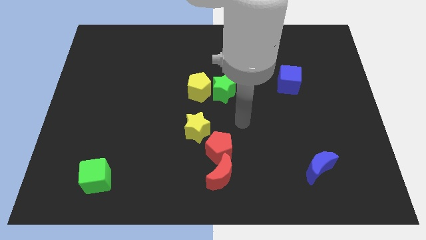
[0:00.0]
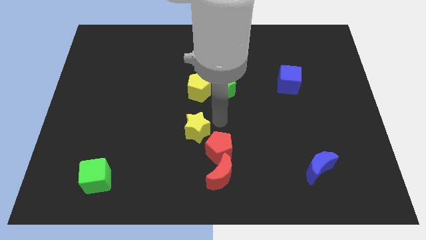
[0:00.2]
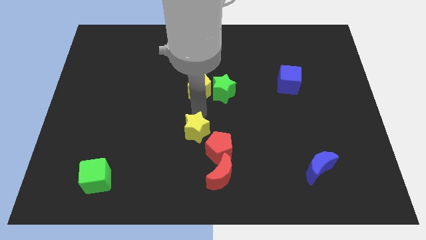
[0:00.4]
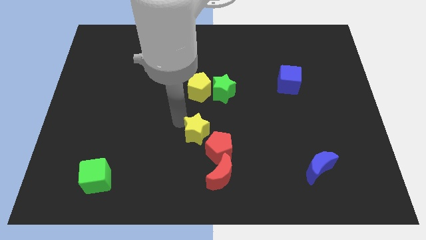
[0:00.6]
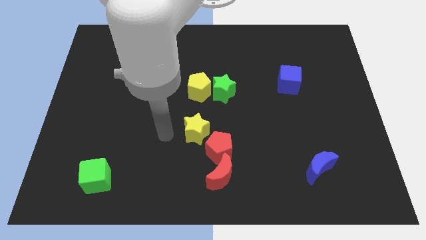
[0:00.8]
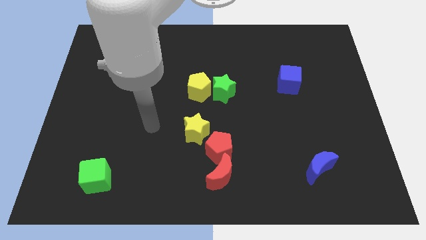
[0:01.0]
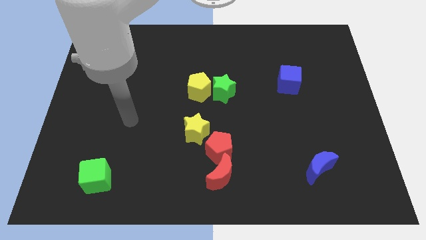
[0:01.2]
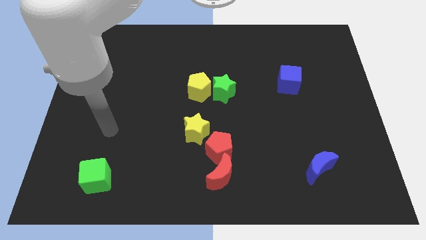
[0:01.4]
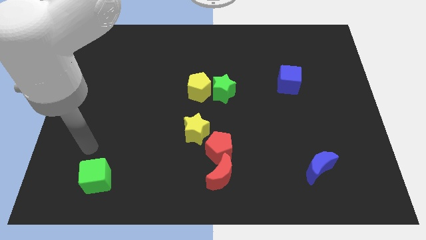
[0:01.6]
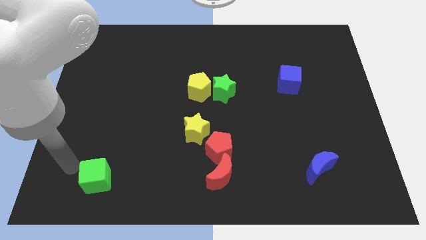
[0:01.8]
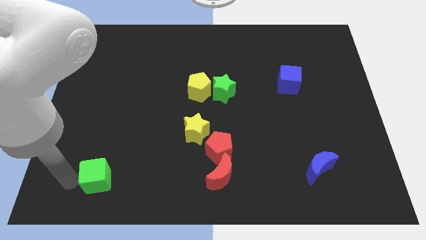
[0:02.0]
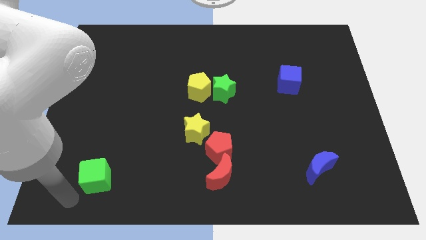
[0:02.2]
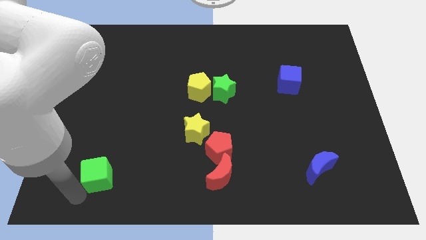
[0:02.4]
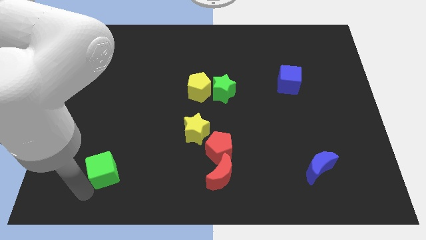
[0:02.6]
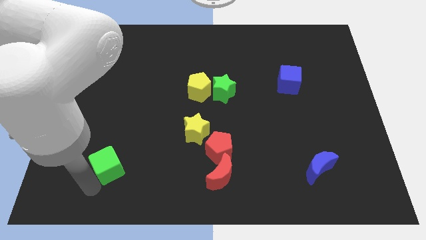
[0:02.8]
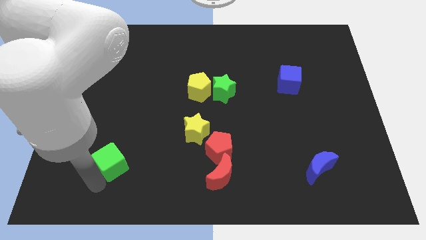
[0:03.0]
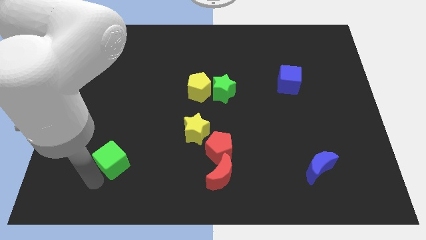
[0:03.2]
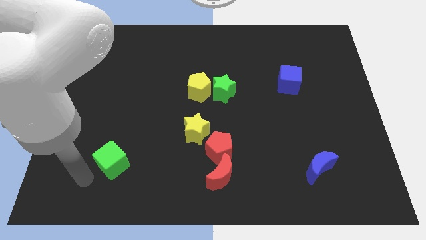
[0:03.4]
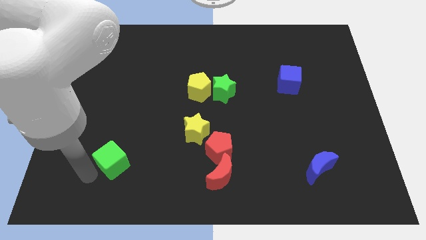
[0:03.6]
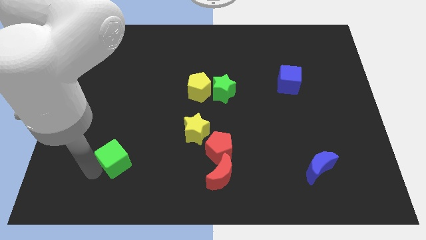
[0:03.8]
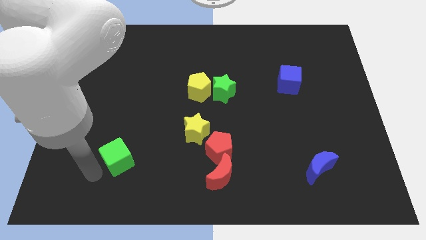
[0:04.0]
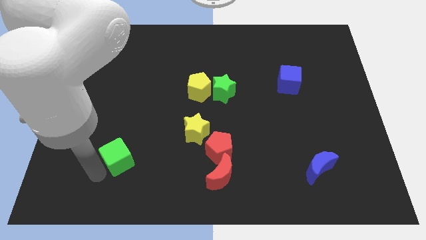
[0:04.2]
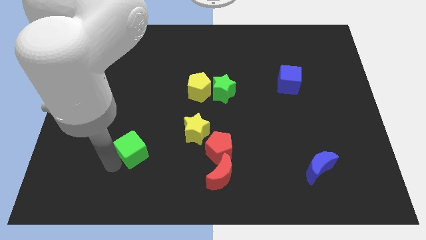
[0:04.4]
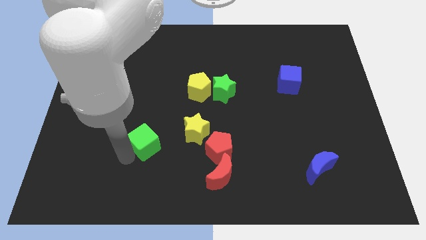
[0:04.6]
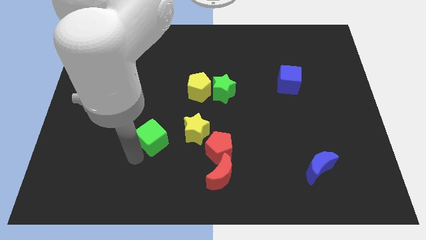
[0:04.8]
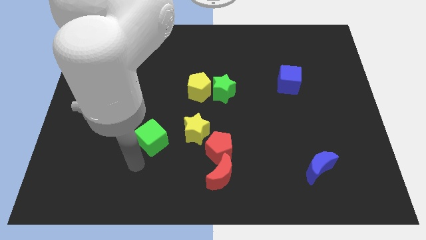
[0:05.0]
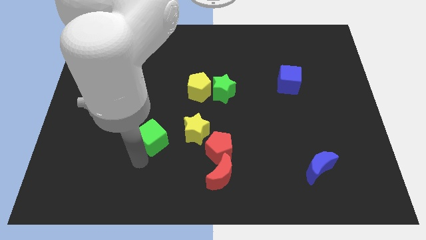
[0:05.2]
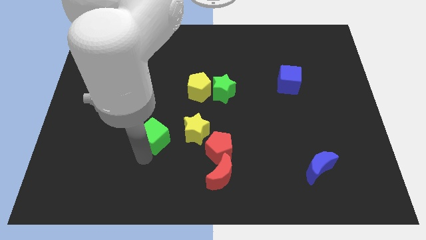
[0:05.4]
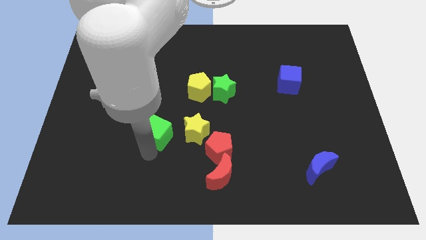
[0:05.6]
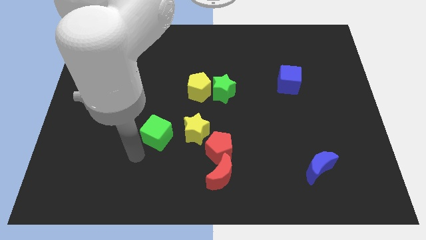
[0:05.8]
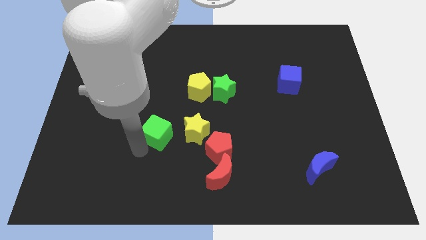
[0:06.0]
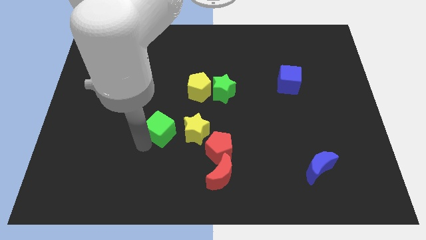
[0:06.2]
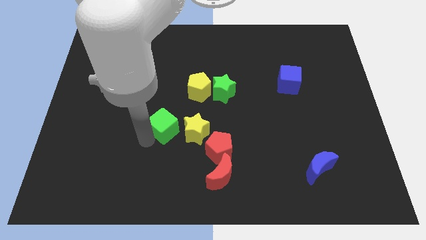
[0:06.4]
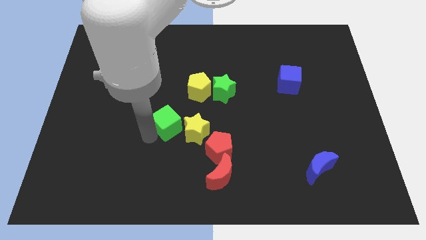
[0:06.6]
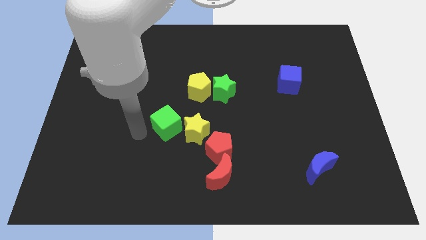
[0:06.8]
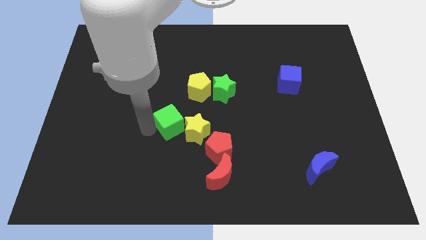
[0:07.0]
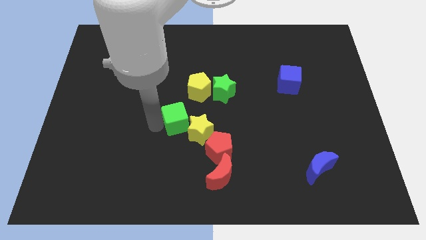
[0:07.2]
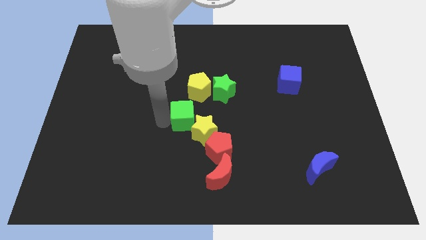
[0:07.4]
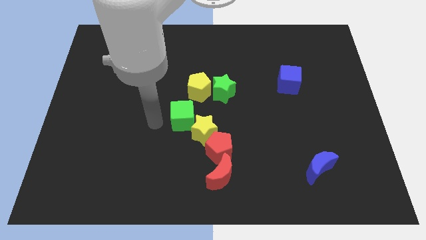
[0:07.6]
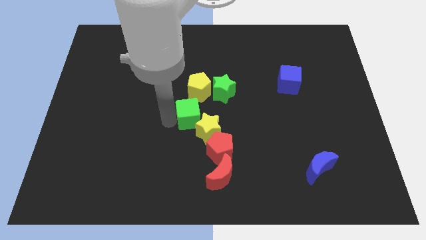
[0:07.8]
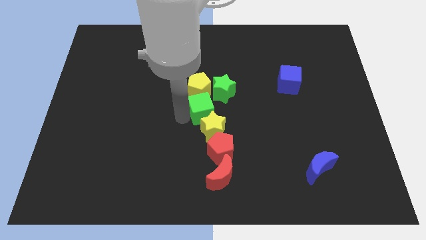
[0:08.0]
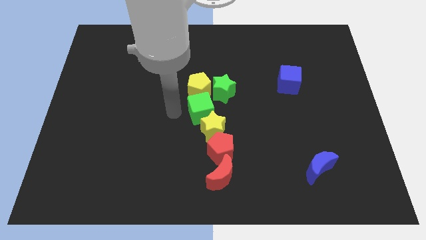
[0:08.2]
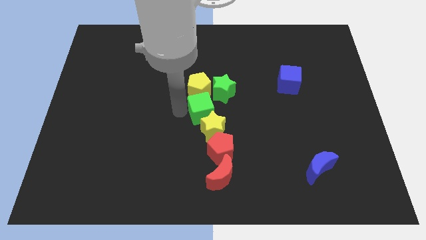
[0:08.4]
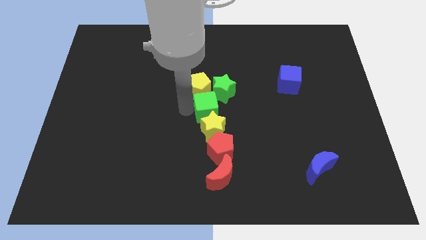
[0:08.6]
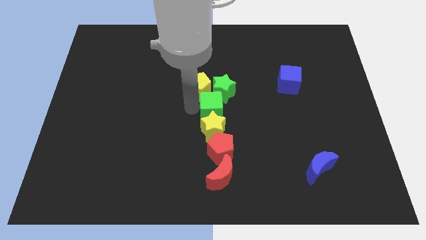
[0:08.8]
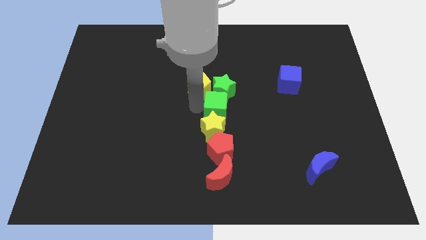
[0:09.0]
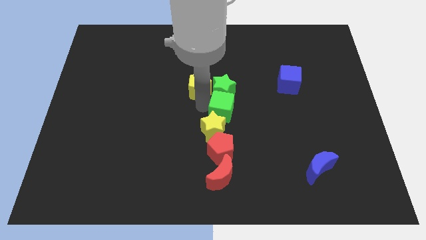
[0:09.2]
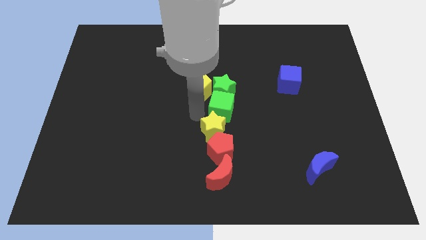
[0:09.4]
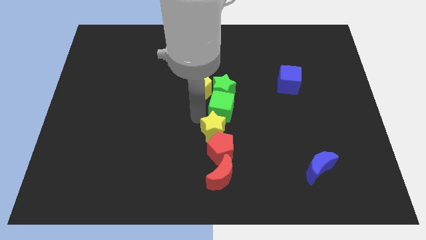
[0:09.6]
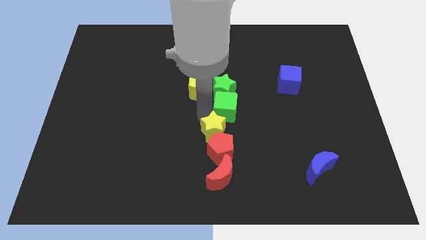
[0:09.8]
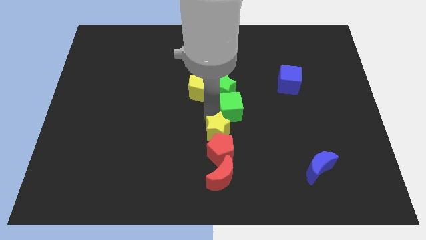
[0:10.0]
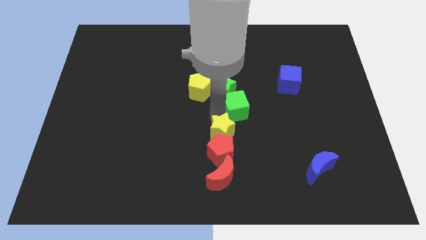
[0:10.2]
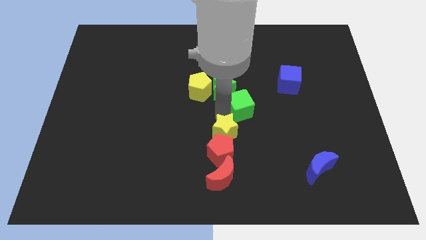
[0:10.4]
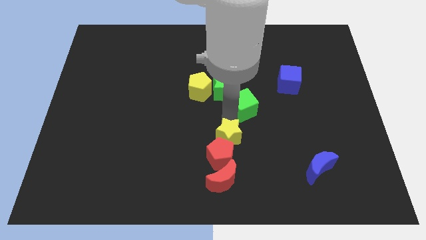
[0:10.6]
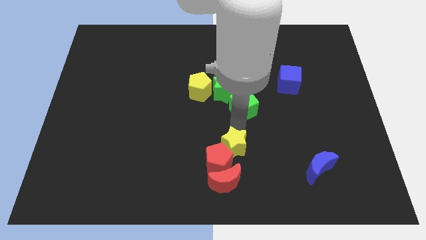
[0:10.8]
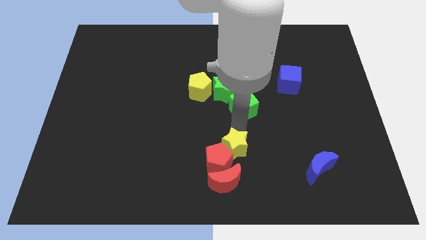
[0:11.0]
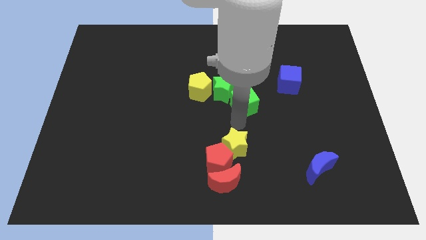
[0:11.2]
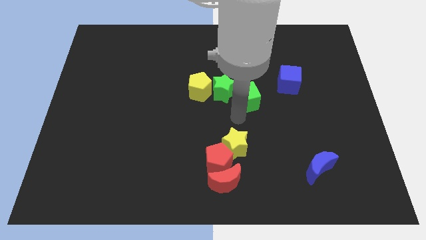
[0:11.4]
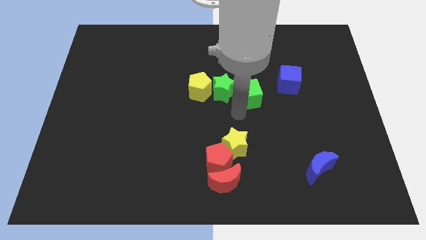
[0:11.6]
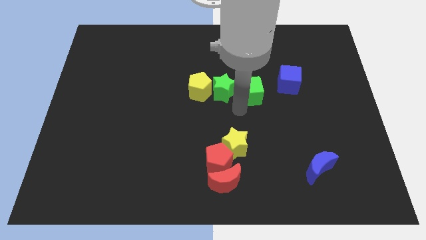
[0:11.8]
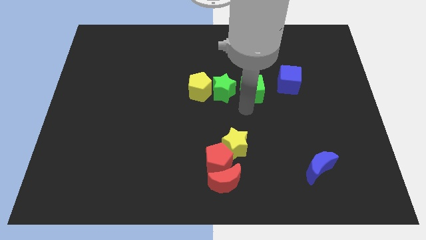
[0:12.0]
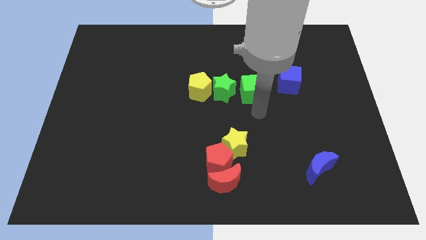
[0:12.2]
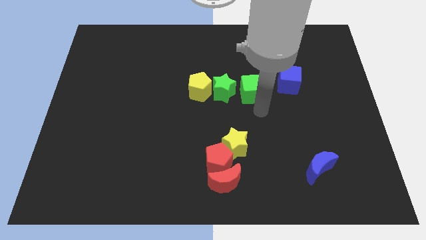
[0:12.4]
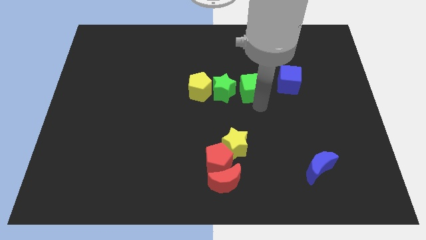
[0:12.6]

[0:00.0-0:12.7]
push the green cube to the top right of the green star

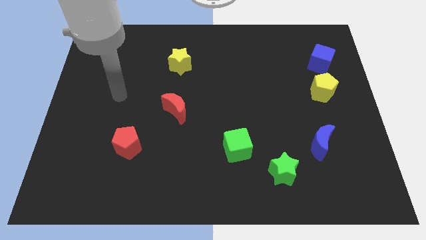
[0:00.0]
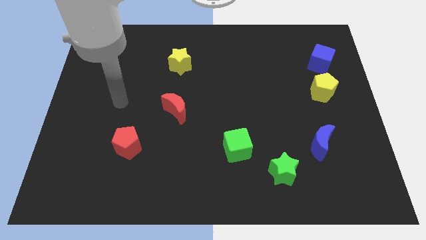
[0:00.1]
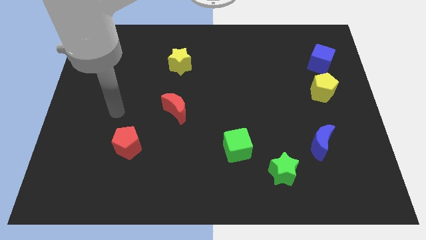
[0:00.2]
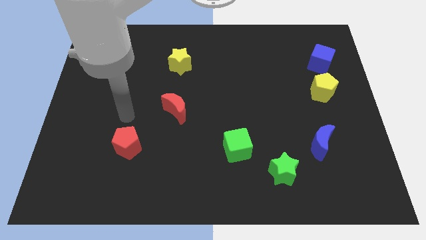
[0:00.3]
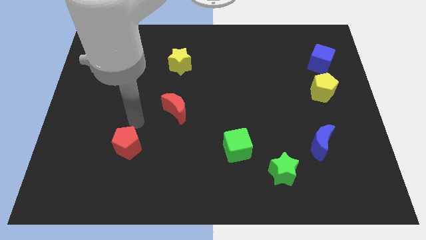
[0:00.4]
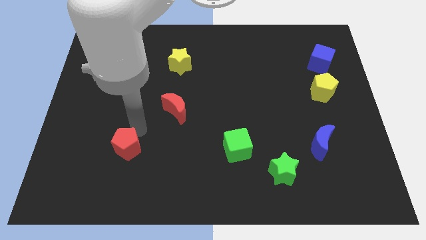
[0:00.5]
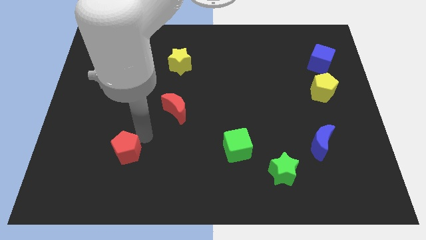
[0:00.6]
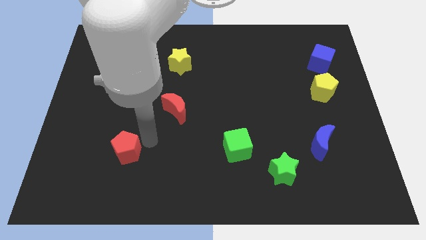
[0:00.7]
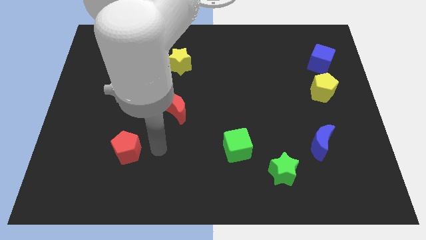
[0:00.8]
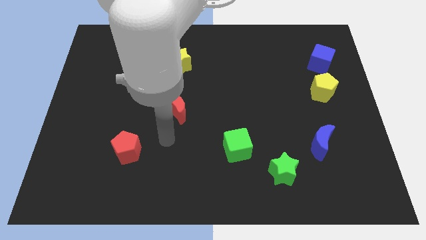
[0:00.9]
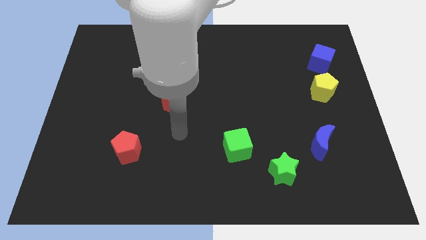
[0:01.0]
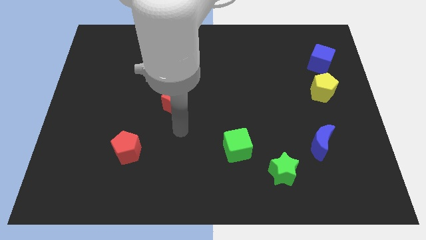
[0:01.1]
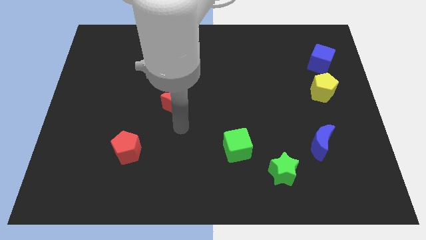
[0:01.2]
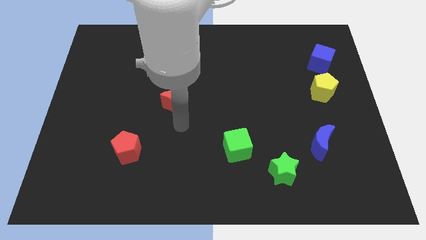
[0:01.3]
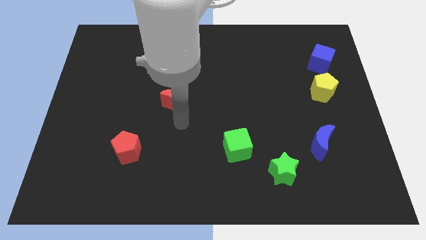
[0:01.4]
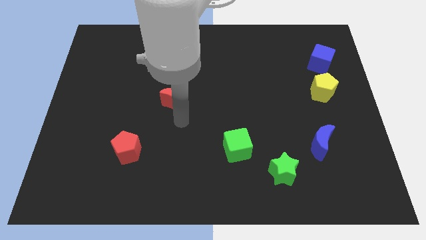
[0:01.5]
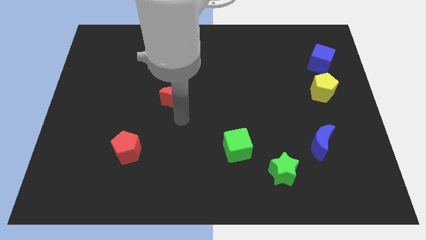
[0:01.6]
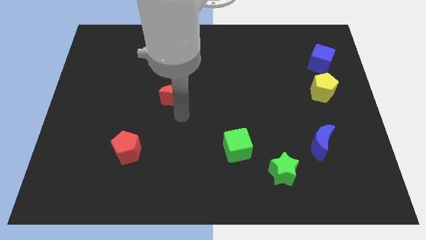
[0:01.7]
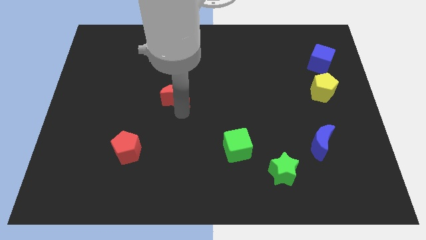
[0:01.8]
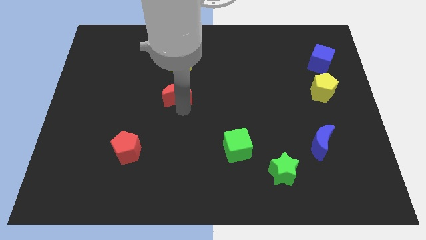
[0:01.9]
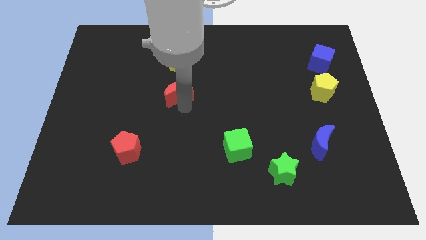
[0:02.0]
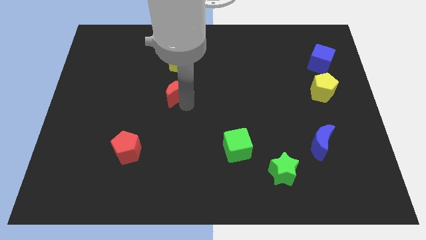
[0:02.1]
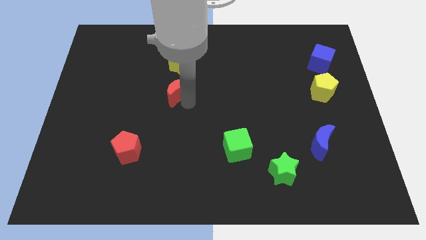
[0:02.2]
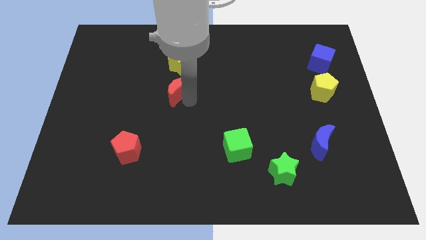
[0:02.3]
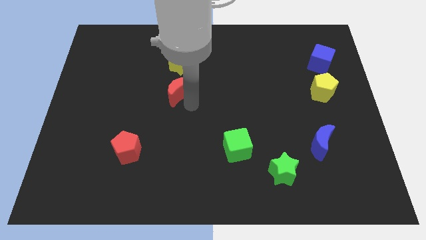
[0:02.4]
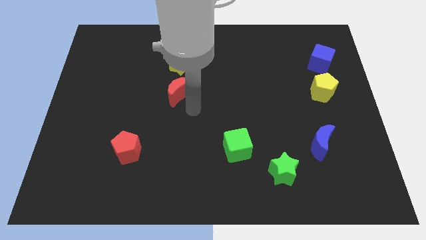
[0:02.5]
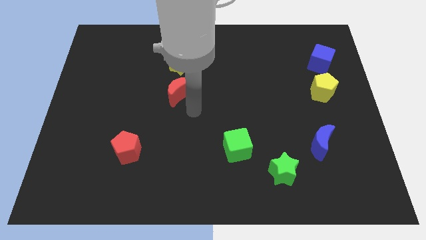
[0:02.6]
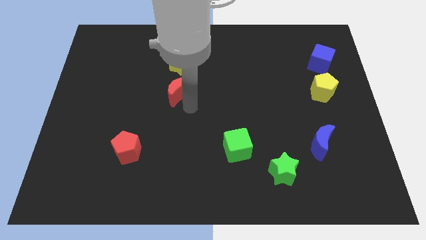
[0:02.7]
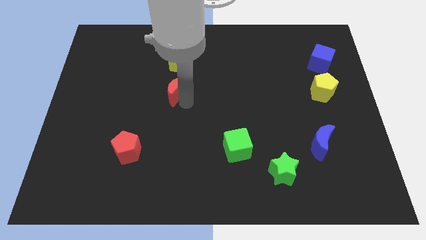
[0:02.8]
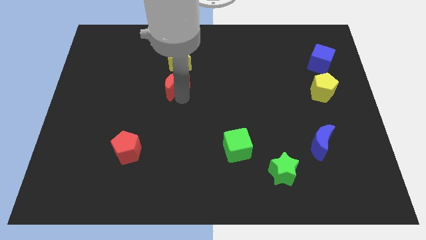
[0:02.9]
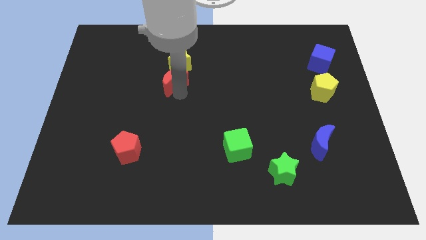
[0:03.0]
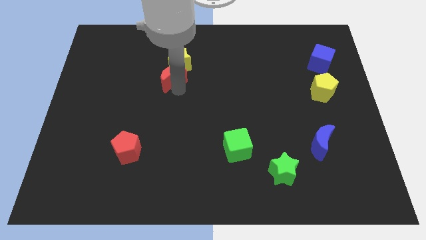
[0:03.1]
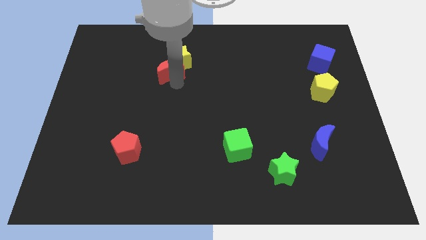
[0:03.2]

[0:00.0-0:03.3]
put the red moon just left of the yellow star
